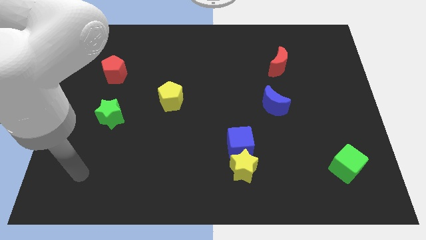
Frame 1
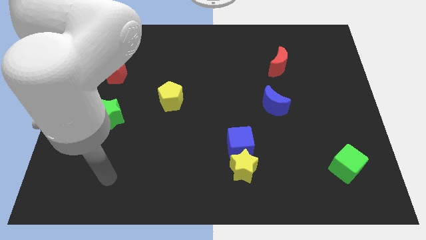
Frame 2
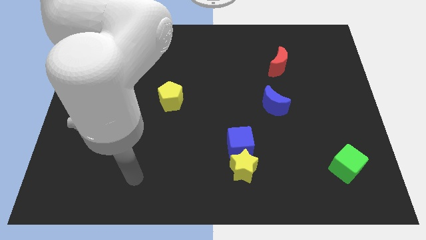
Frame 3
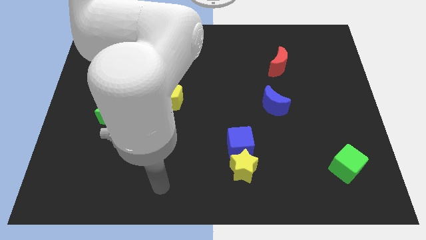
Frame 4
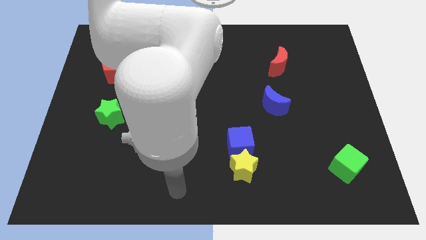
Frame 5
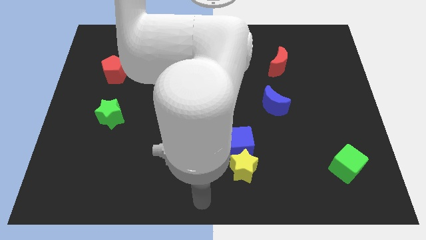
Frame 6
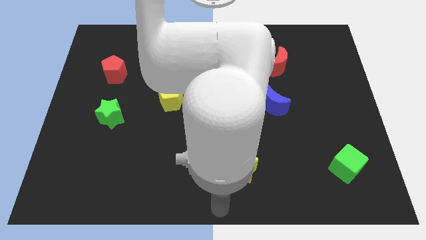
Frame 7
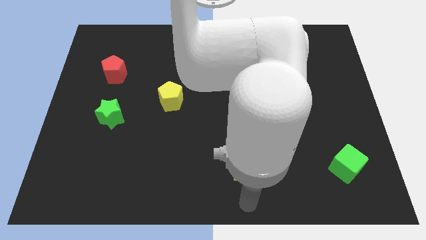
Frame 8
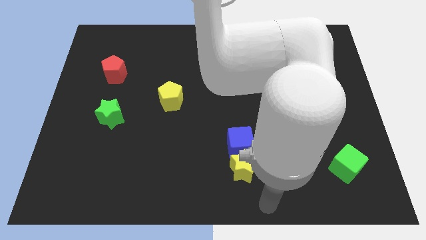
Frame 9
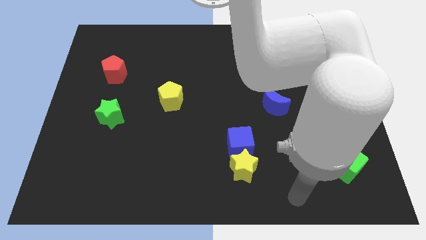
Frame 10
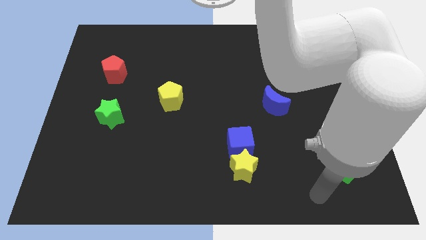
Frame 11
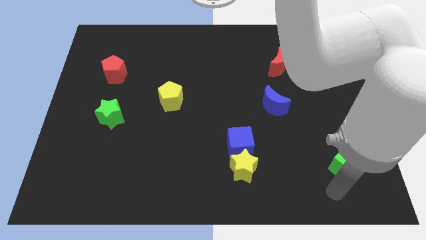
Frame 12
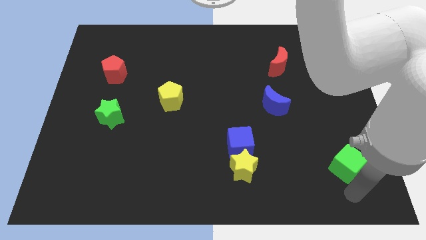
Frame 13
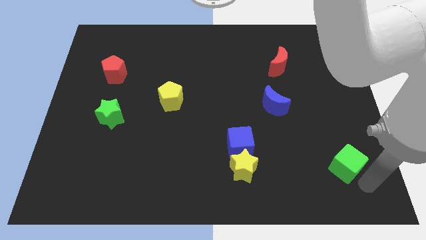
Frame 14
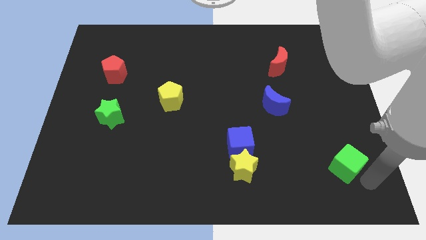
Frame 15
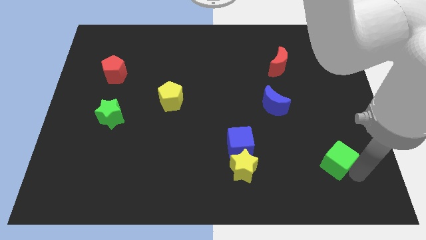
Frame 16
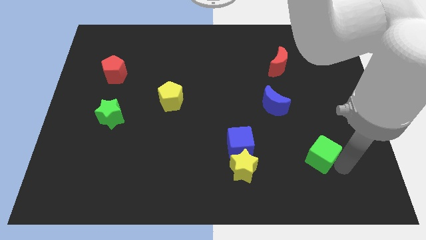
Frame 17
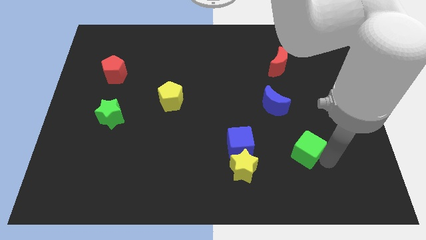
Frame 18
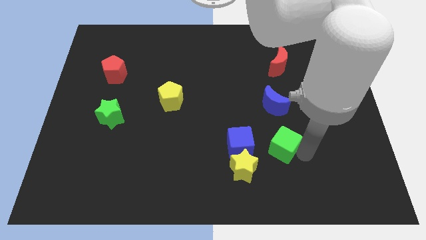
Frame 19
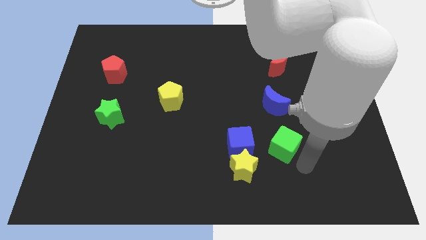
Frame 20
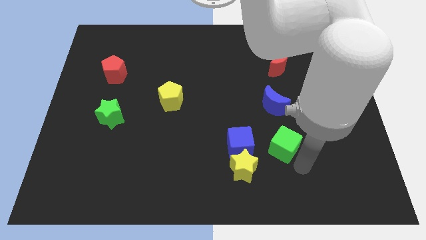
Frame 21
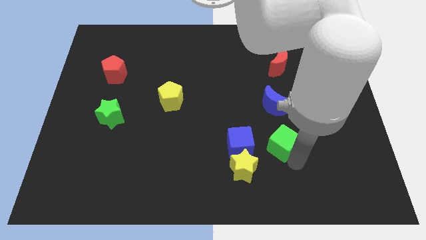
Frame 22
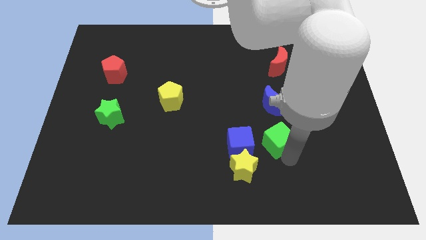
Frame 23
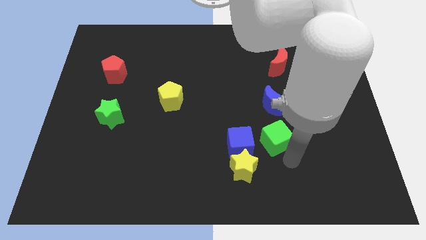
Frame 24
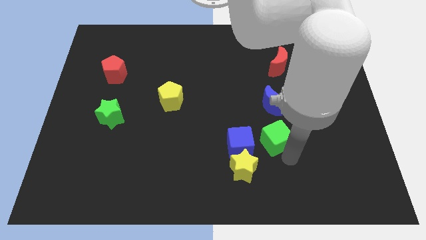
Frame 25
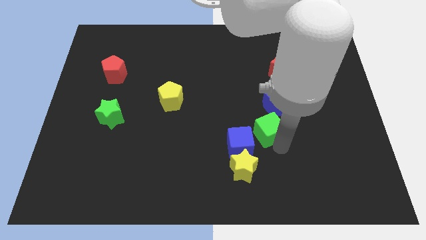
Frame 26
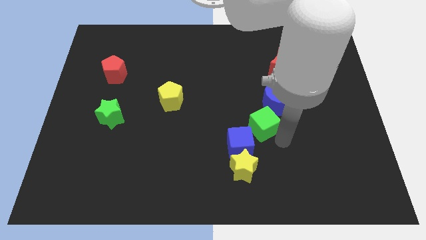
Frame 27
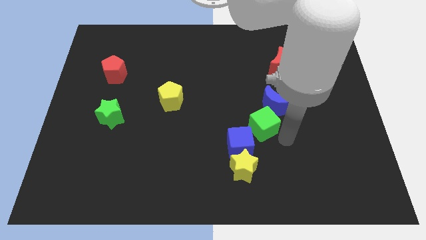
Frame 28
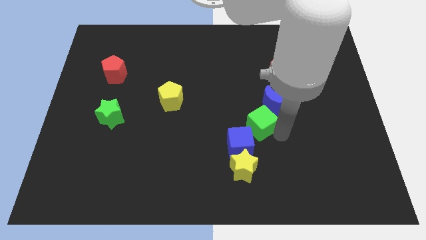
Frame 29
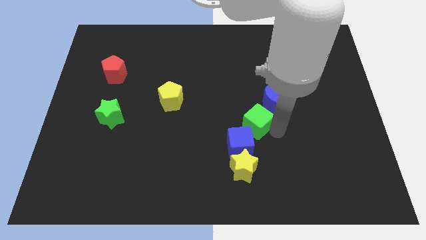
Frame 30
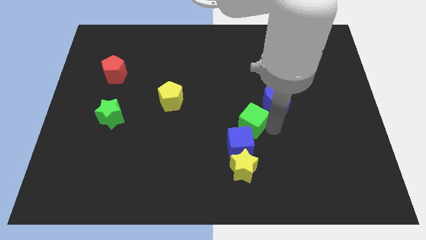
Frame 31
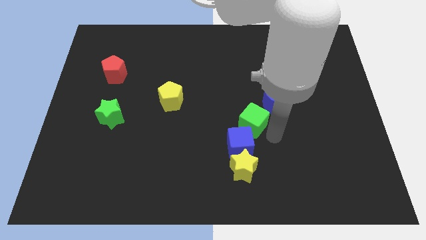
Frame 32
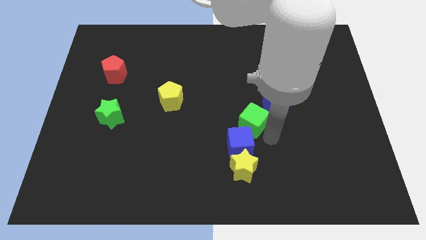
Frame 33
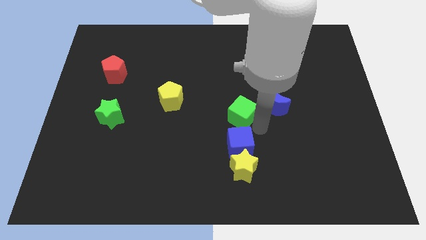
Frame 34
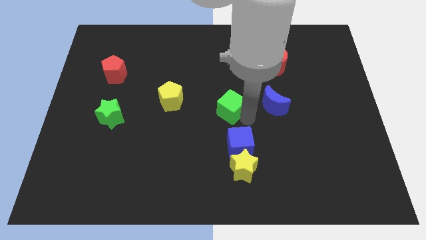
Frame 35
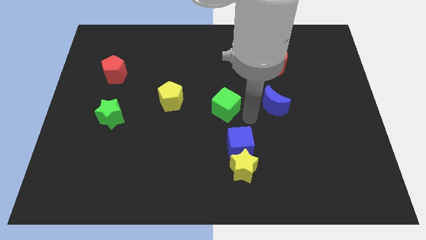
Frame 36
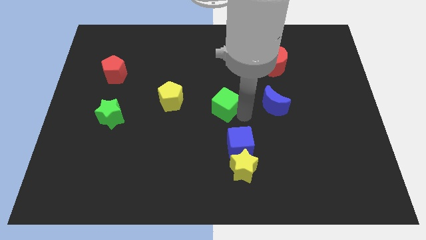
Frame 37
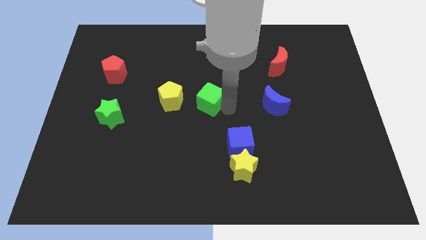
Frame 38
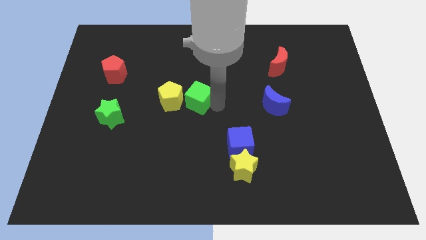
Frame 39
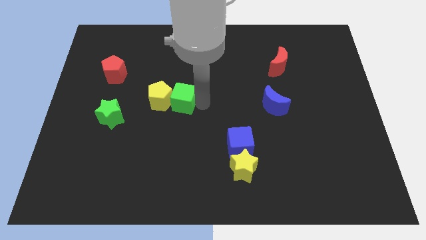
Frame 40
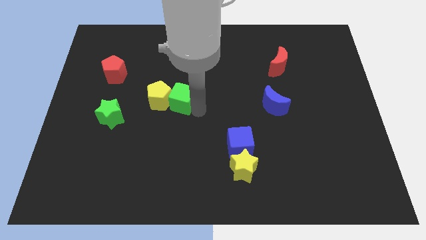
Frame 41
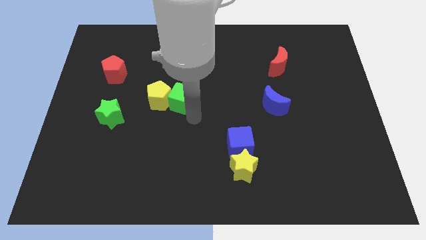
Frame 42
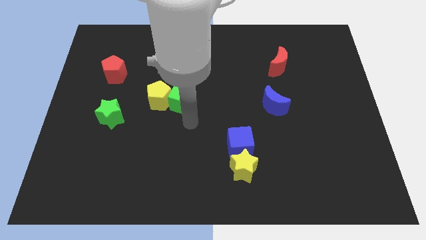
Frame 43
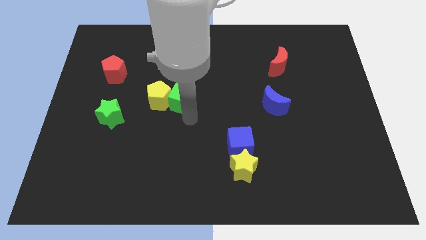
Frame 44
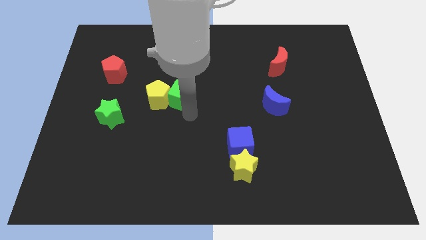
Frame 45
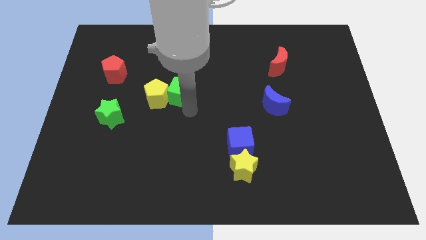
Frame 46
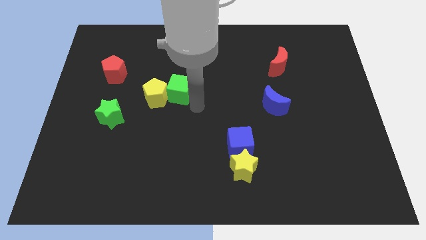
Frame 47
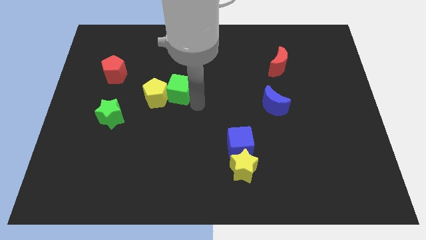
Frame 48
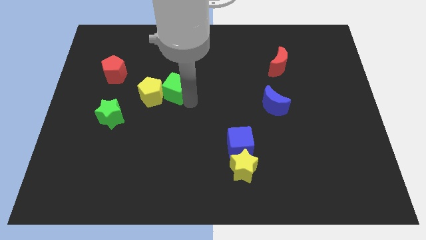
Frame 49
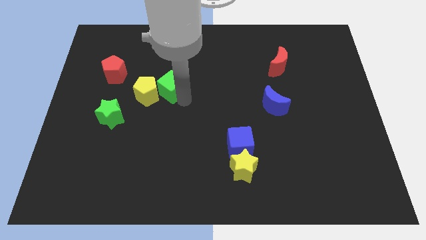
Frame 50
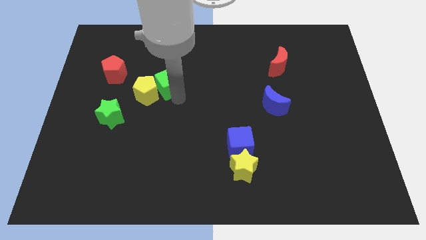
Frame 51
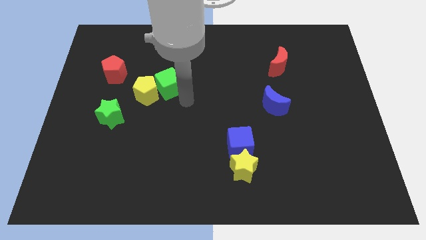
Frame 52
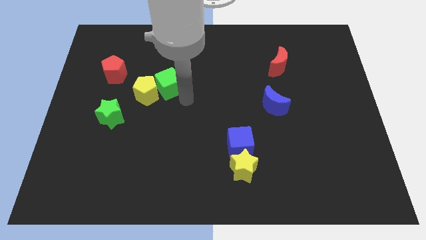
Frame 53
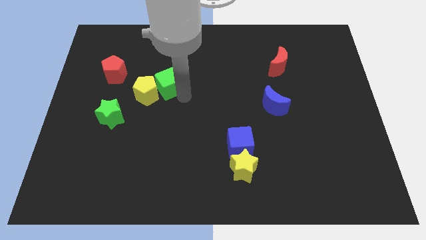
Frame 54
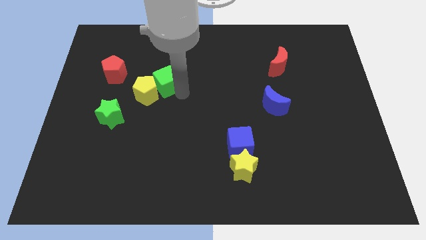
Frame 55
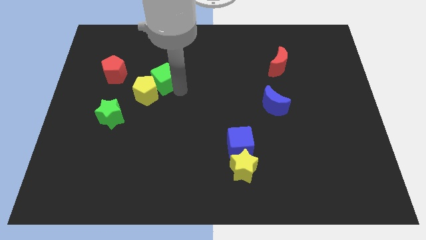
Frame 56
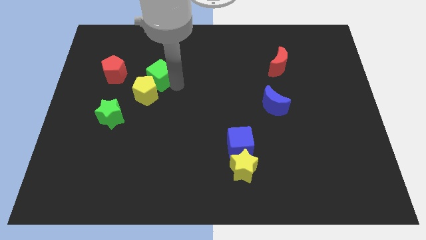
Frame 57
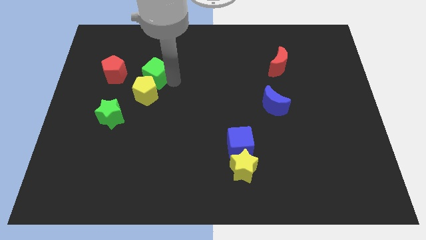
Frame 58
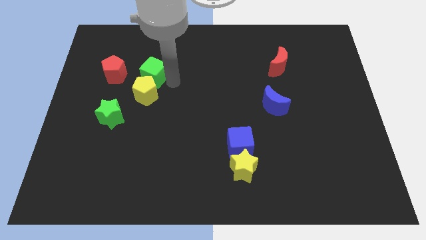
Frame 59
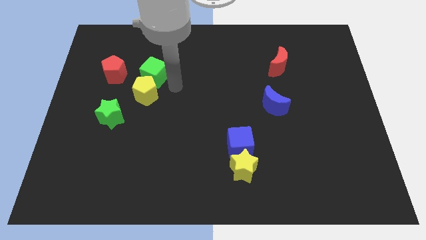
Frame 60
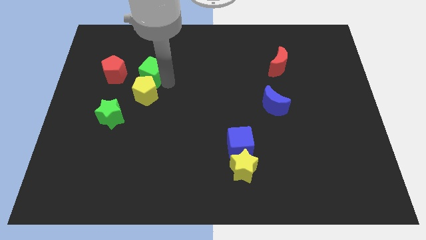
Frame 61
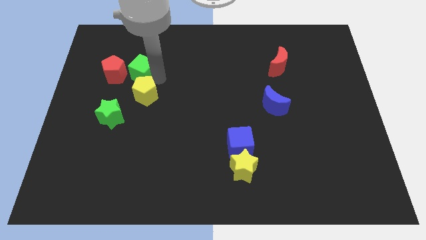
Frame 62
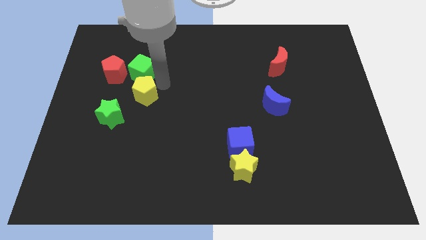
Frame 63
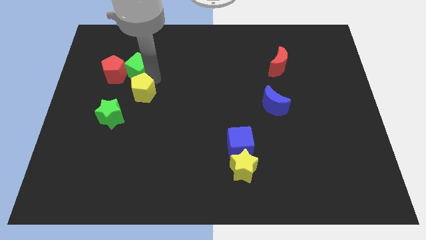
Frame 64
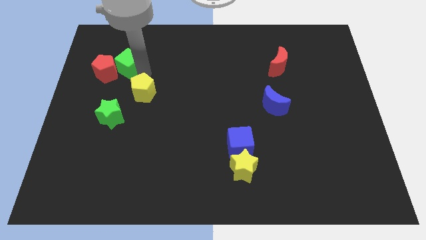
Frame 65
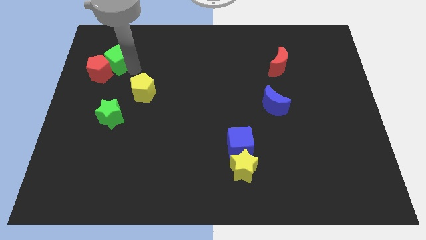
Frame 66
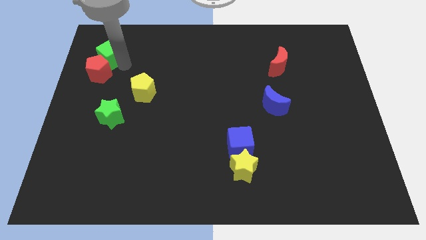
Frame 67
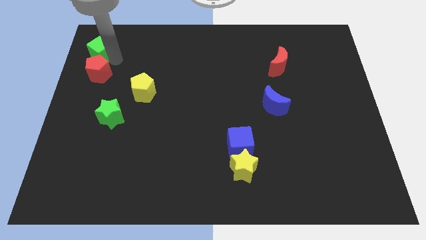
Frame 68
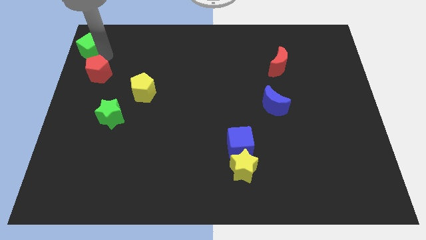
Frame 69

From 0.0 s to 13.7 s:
put the green cube to the top left
